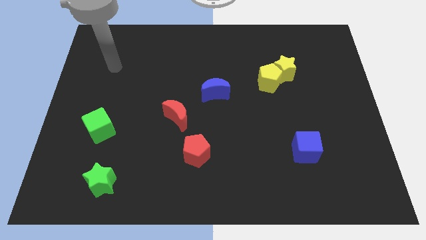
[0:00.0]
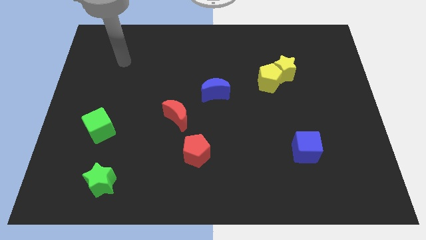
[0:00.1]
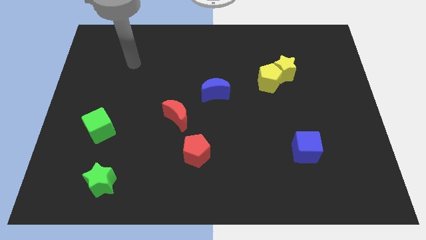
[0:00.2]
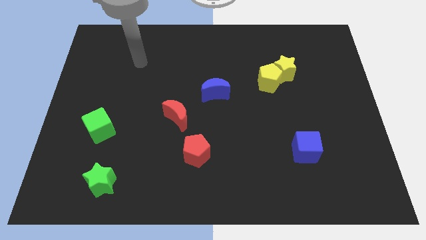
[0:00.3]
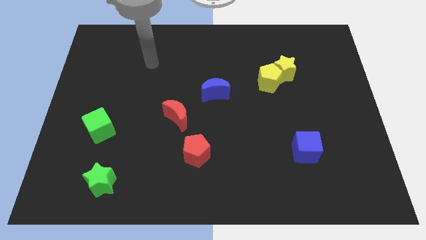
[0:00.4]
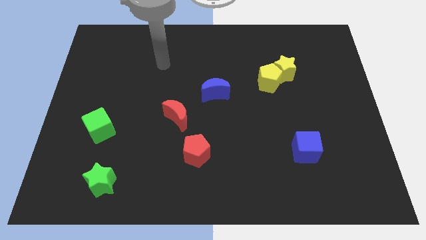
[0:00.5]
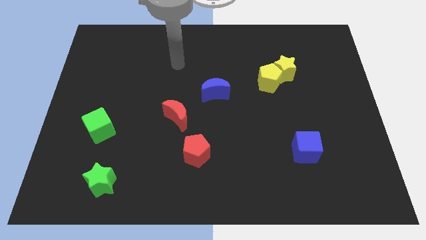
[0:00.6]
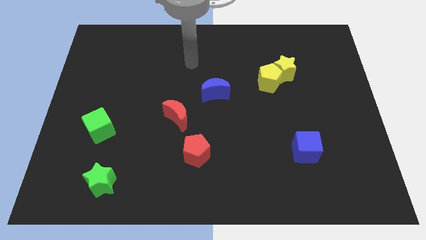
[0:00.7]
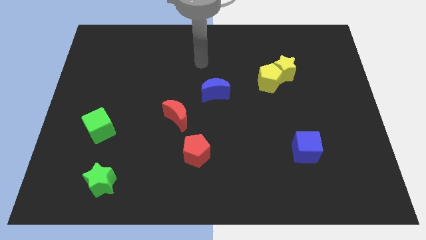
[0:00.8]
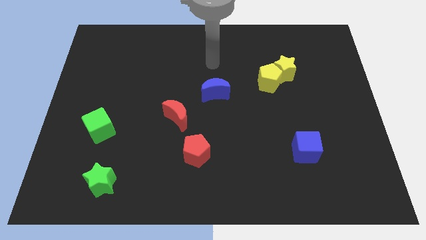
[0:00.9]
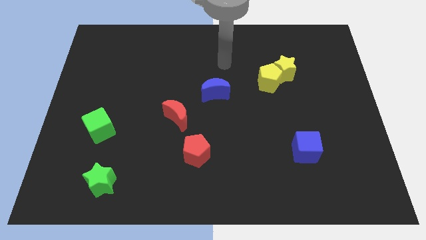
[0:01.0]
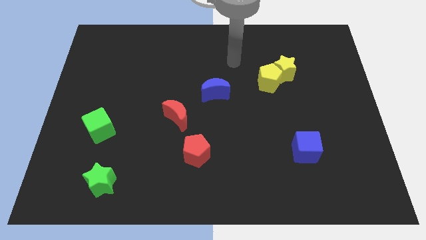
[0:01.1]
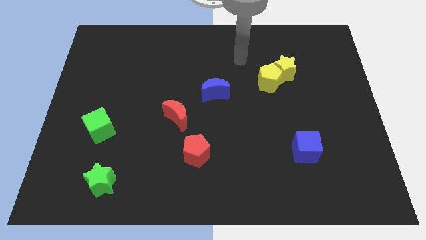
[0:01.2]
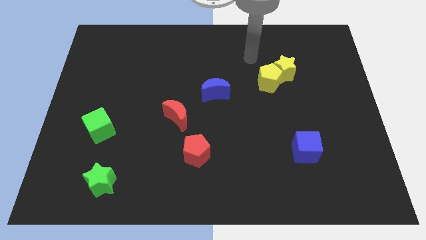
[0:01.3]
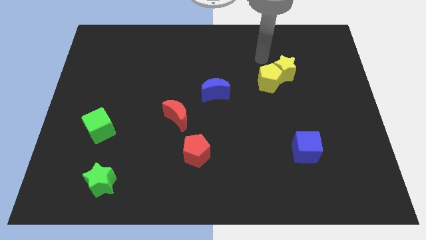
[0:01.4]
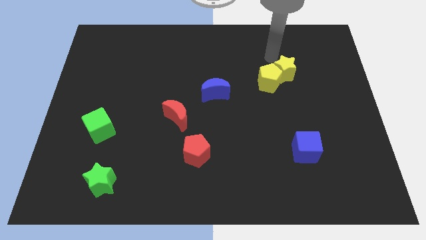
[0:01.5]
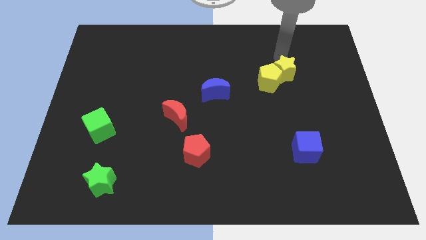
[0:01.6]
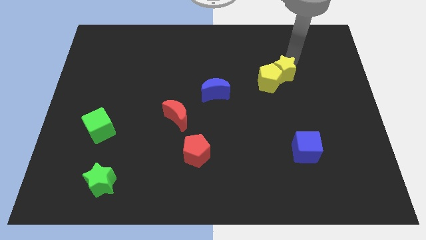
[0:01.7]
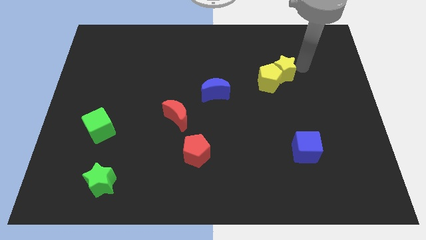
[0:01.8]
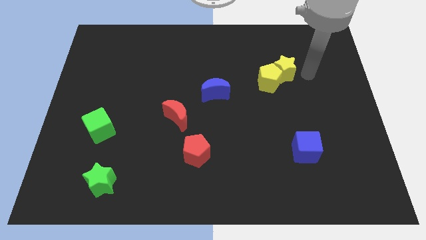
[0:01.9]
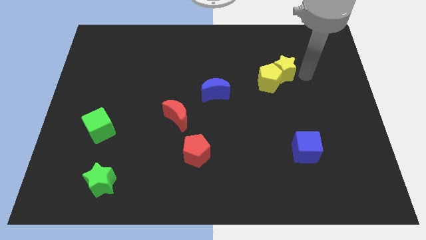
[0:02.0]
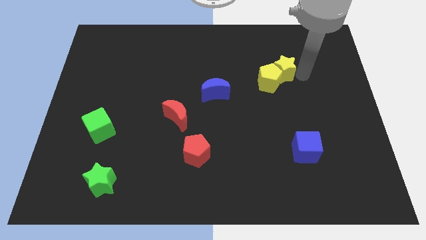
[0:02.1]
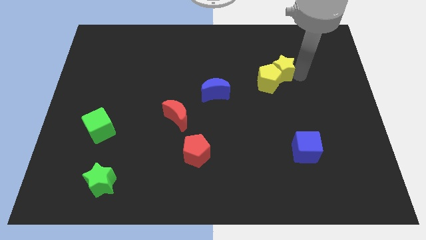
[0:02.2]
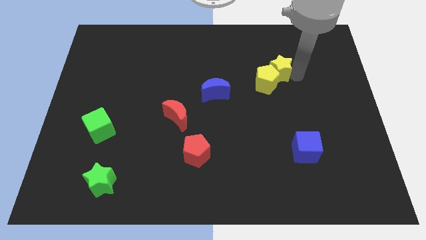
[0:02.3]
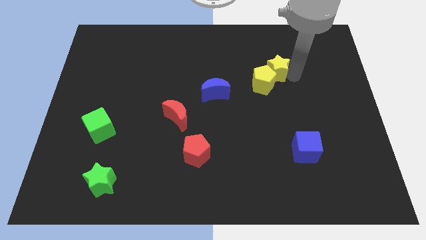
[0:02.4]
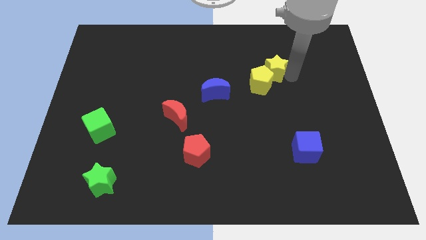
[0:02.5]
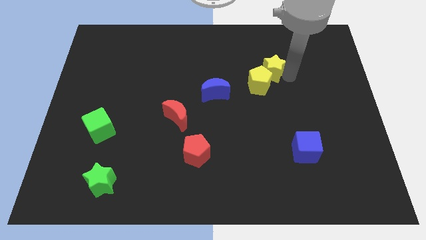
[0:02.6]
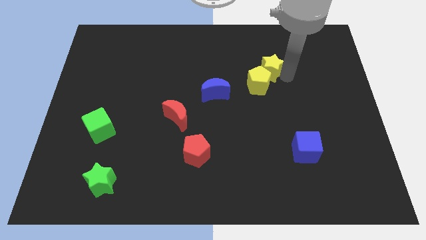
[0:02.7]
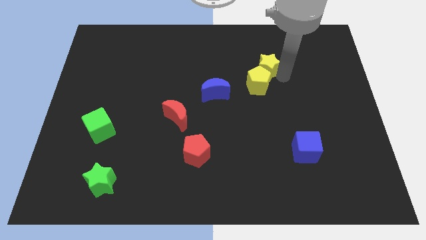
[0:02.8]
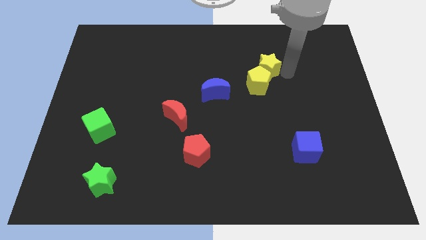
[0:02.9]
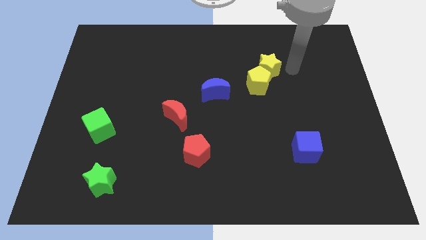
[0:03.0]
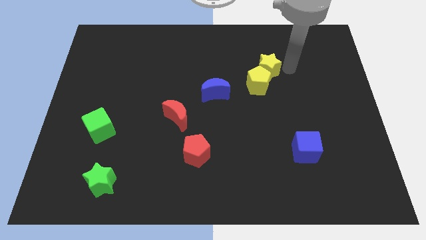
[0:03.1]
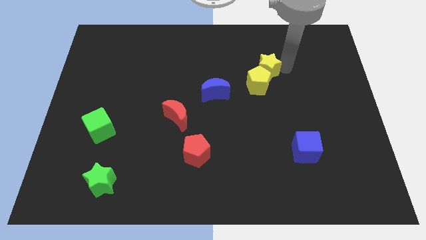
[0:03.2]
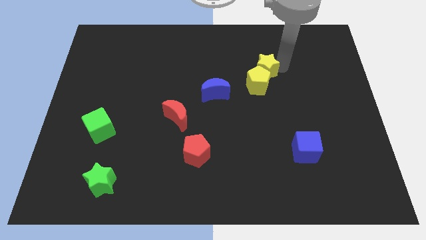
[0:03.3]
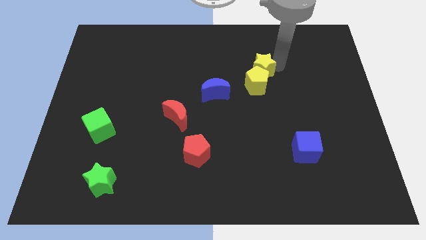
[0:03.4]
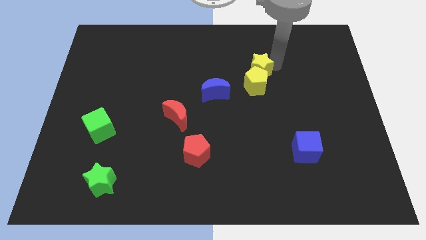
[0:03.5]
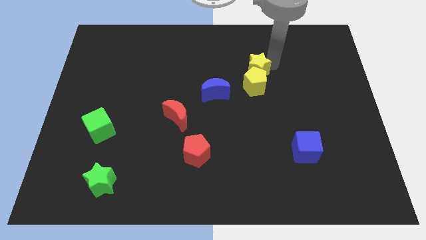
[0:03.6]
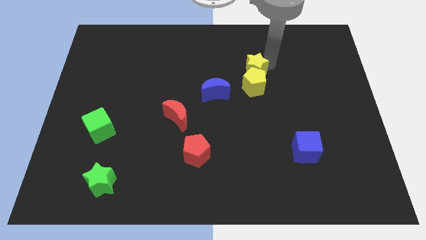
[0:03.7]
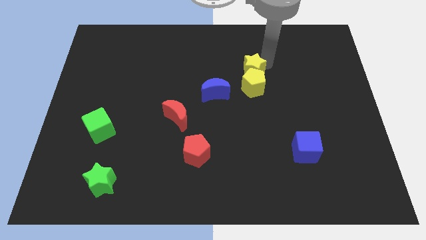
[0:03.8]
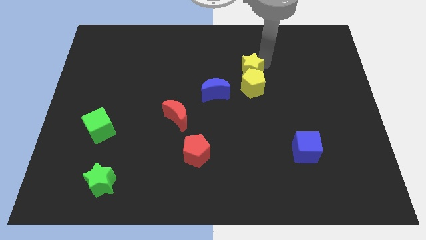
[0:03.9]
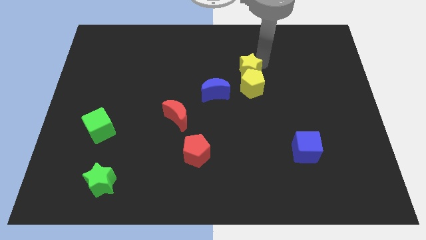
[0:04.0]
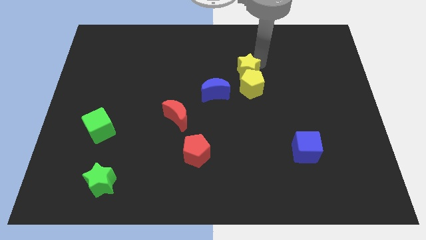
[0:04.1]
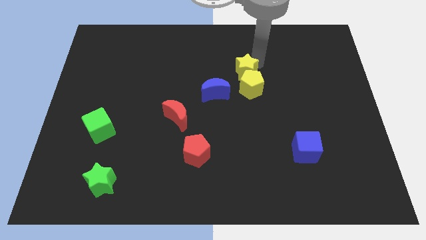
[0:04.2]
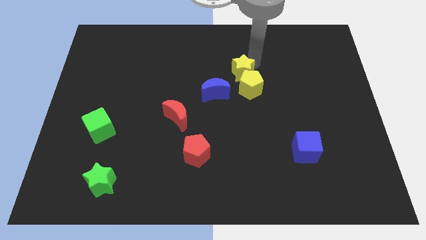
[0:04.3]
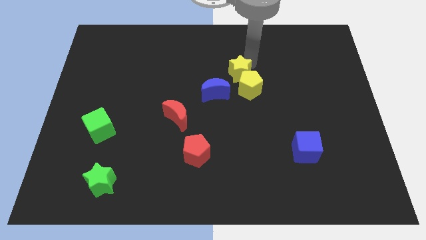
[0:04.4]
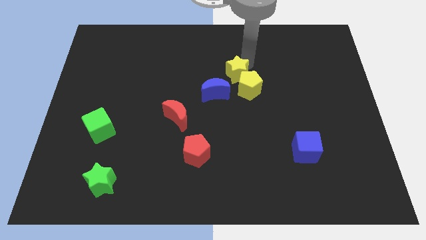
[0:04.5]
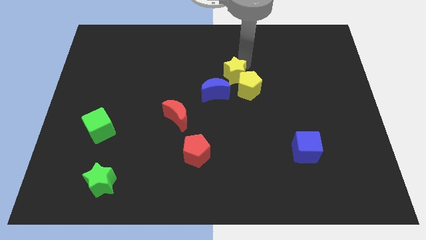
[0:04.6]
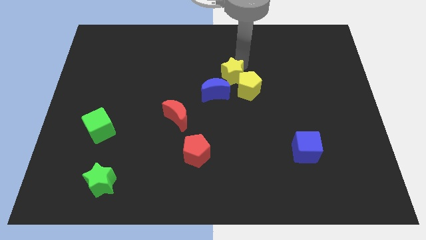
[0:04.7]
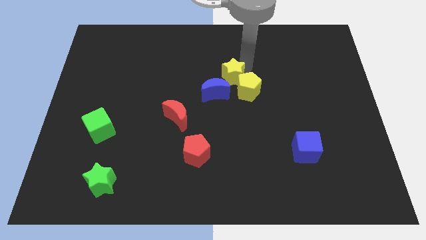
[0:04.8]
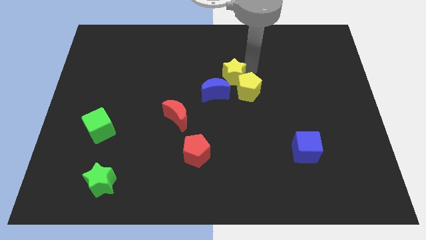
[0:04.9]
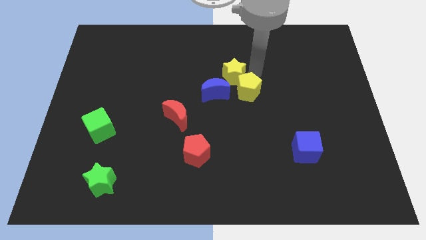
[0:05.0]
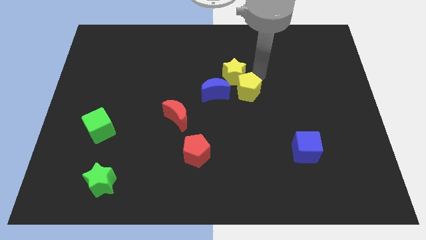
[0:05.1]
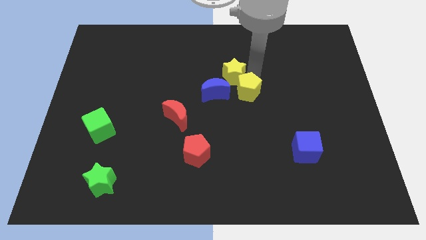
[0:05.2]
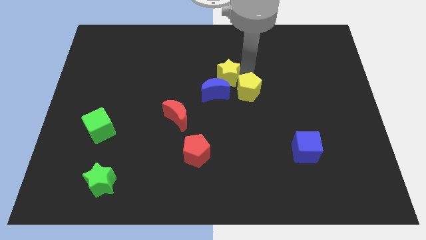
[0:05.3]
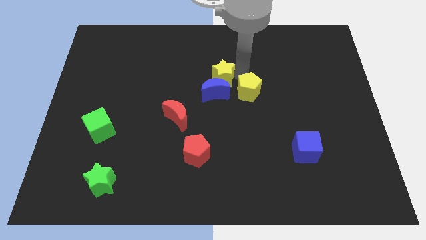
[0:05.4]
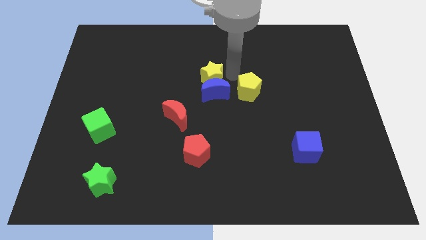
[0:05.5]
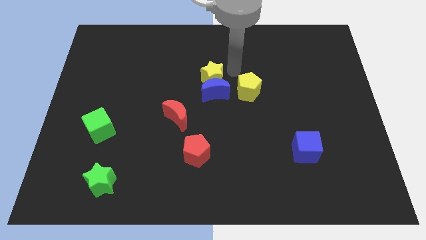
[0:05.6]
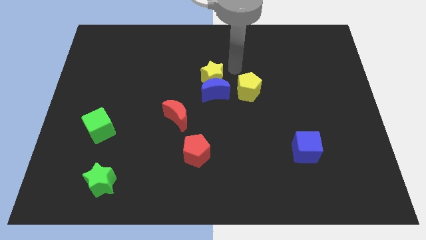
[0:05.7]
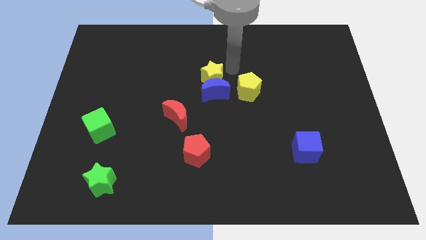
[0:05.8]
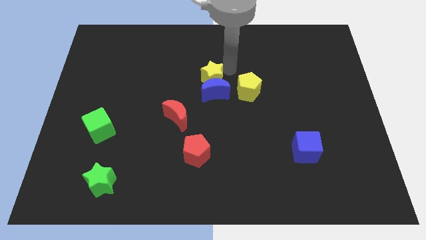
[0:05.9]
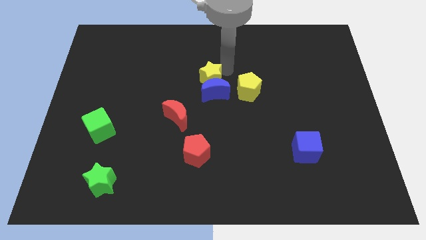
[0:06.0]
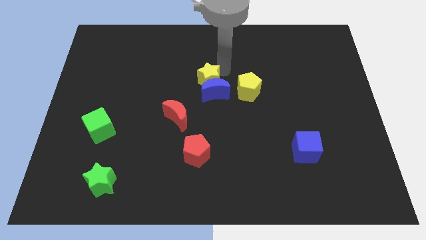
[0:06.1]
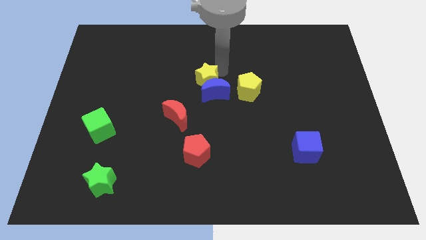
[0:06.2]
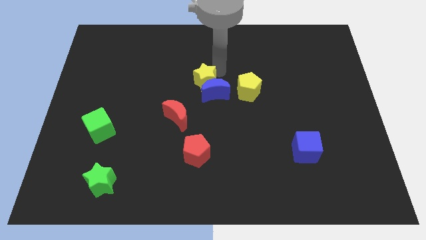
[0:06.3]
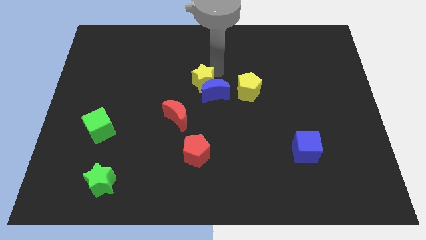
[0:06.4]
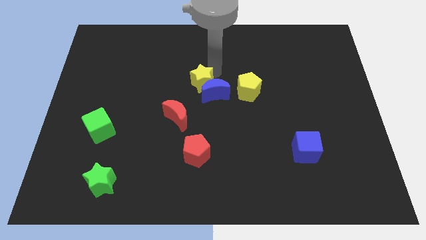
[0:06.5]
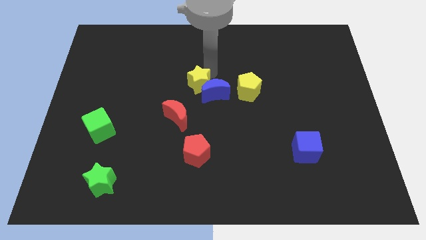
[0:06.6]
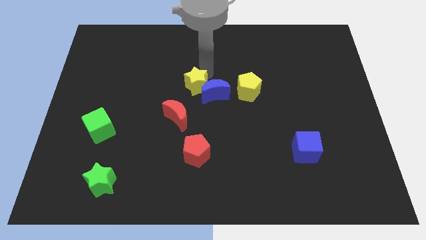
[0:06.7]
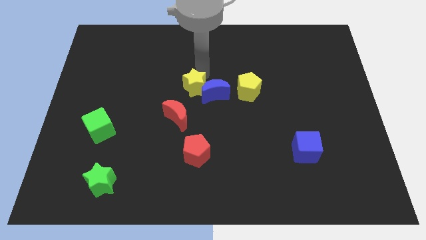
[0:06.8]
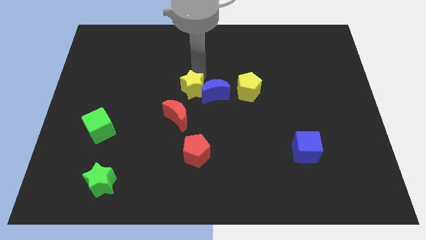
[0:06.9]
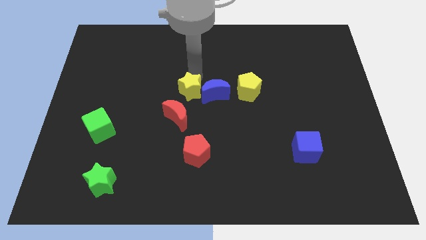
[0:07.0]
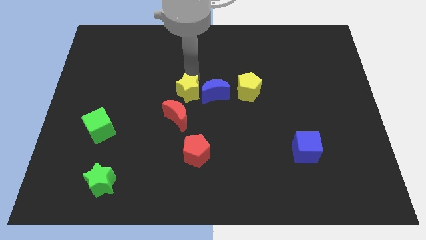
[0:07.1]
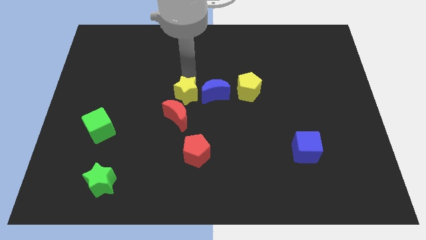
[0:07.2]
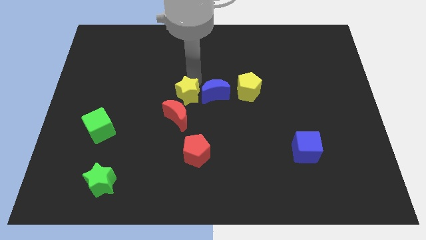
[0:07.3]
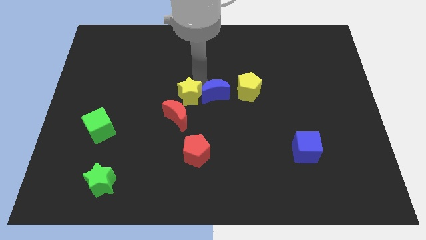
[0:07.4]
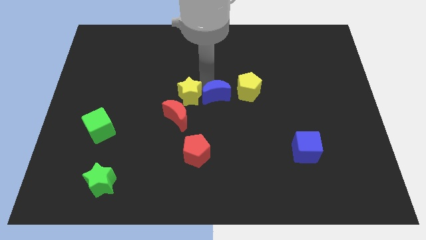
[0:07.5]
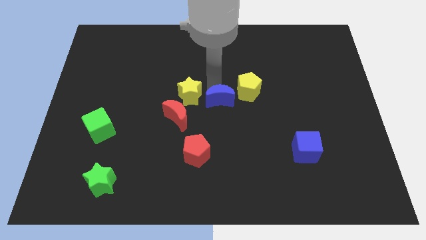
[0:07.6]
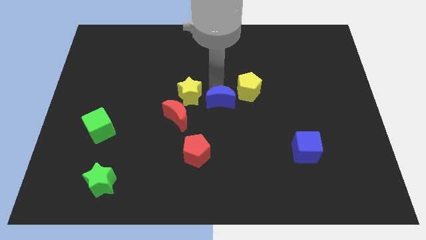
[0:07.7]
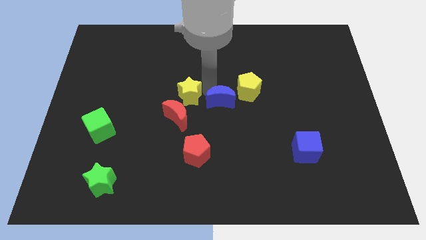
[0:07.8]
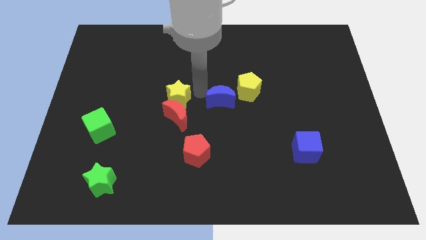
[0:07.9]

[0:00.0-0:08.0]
slide the yellow star to the top left of the red moon
